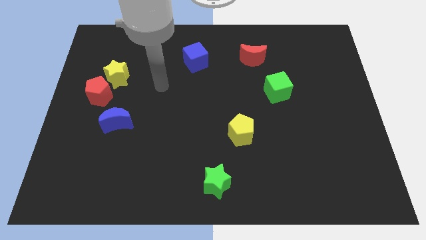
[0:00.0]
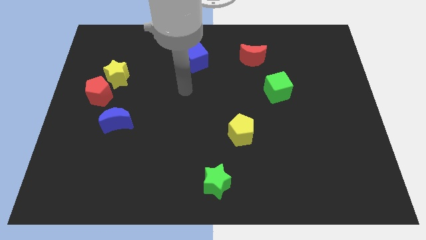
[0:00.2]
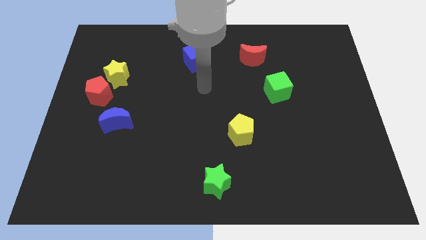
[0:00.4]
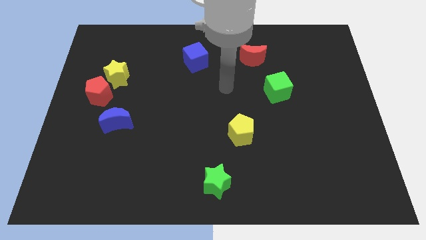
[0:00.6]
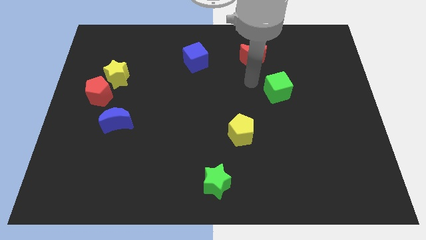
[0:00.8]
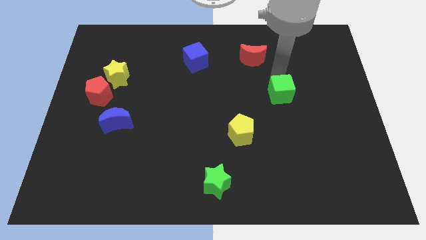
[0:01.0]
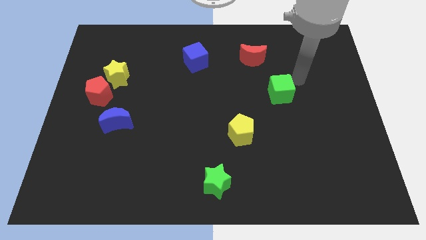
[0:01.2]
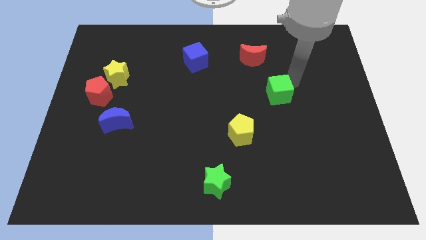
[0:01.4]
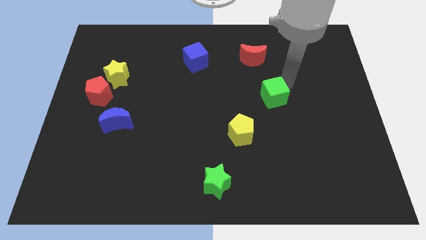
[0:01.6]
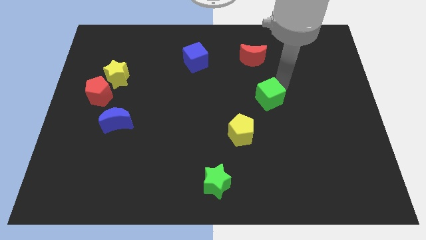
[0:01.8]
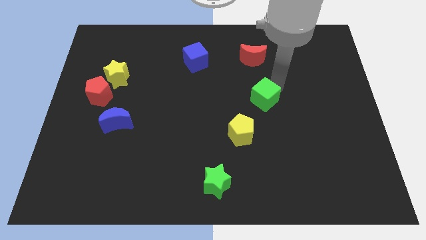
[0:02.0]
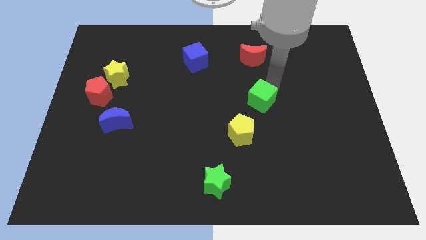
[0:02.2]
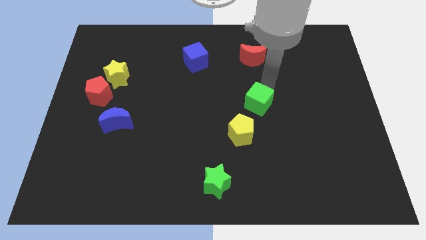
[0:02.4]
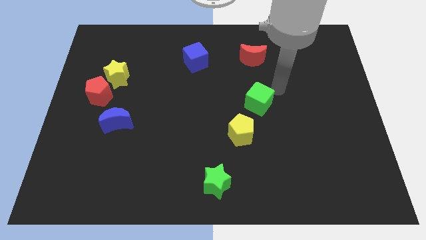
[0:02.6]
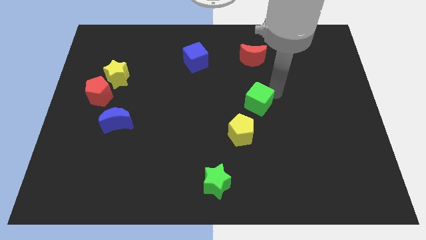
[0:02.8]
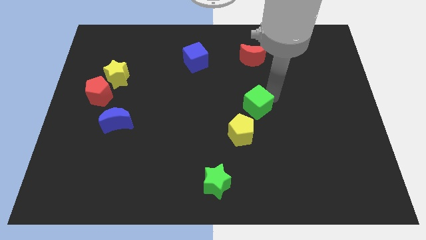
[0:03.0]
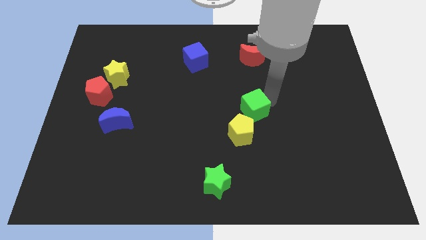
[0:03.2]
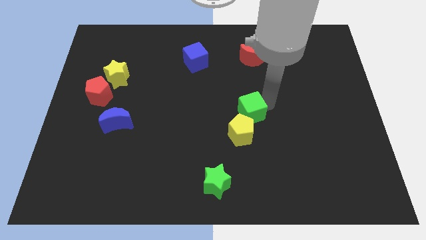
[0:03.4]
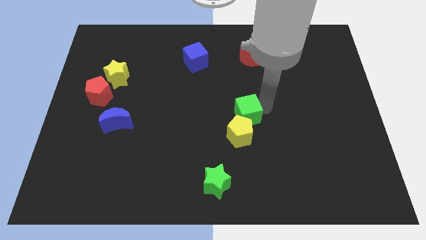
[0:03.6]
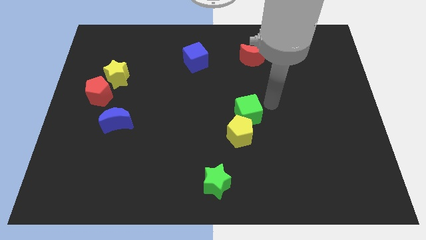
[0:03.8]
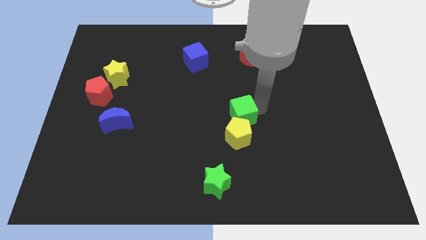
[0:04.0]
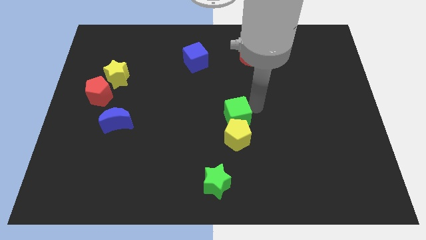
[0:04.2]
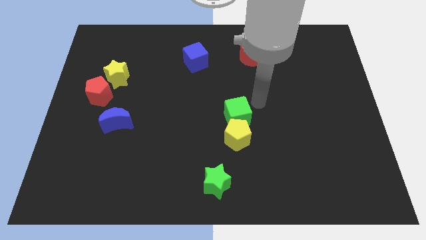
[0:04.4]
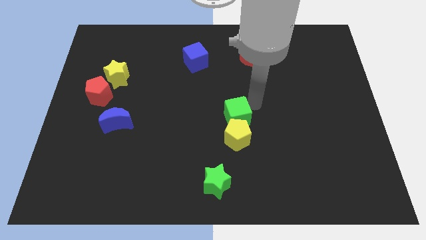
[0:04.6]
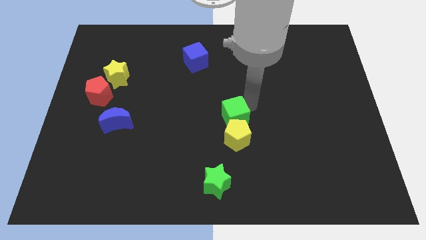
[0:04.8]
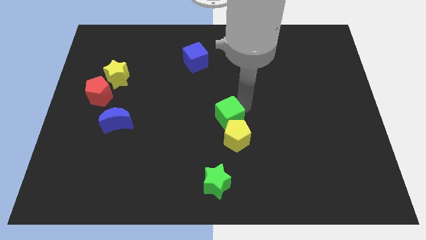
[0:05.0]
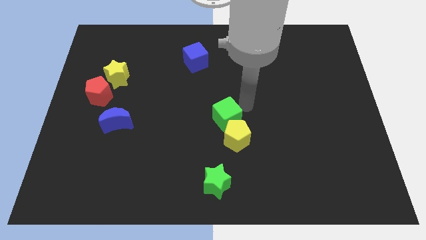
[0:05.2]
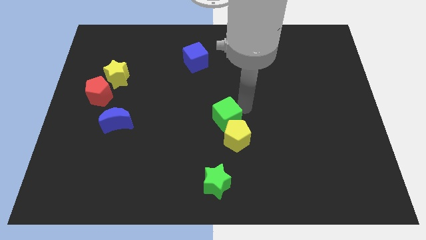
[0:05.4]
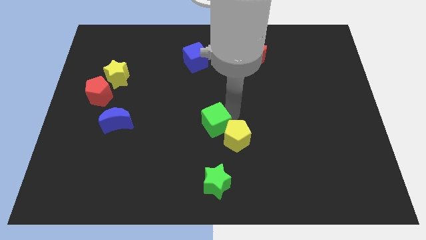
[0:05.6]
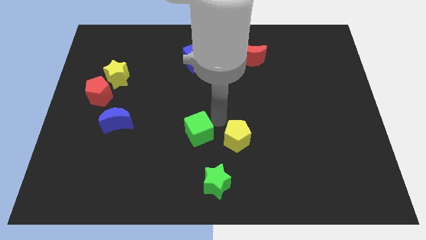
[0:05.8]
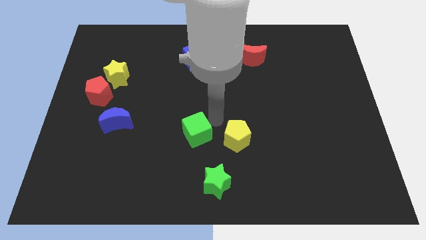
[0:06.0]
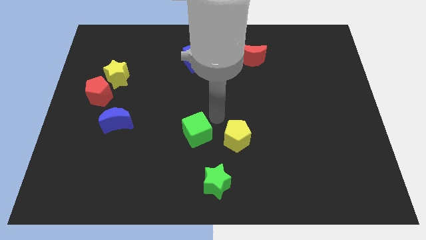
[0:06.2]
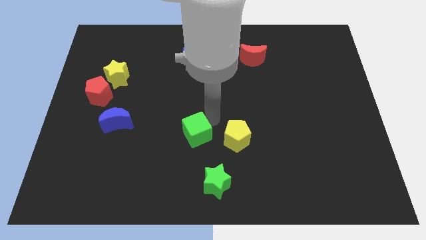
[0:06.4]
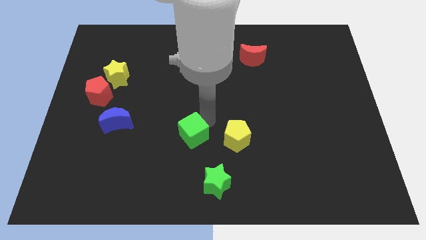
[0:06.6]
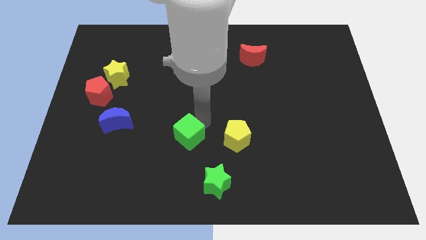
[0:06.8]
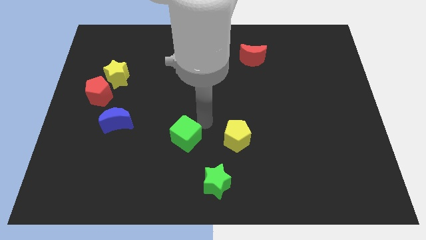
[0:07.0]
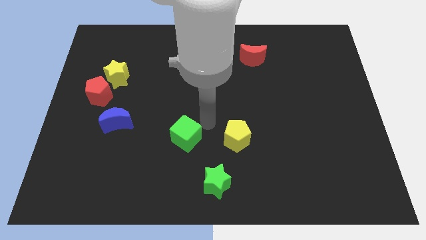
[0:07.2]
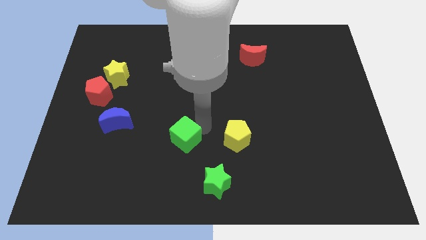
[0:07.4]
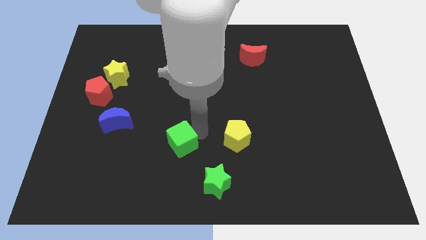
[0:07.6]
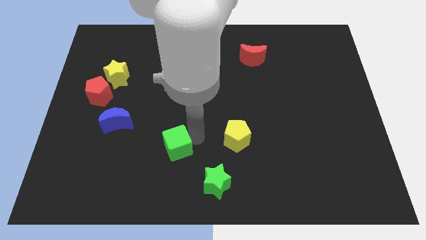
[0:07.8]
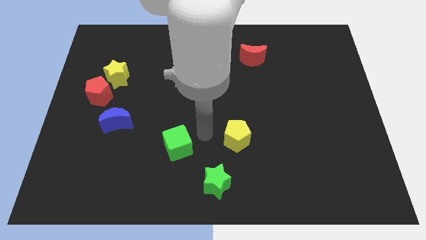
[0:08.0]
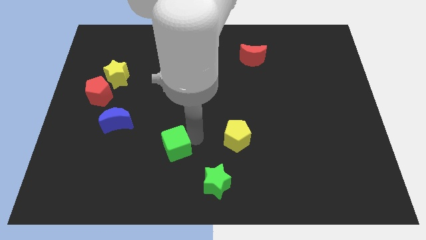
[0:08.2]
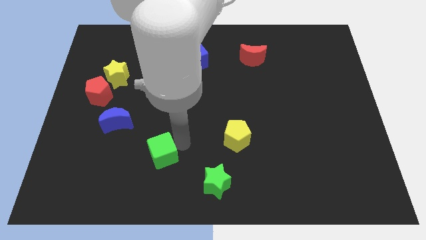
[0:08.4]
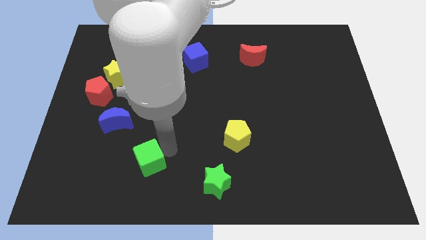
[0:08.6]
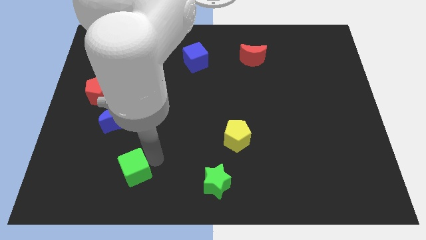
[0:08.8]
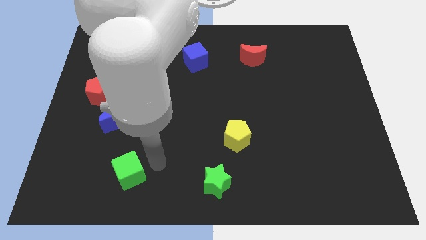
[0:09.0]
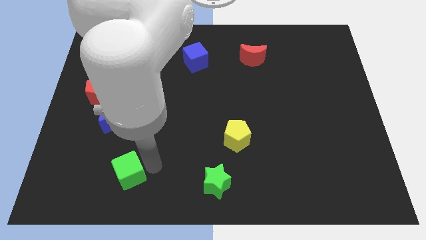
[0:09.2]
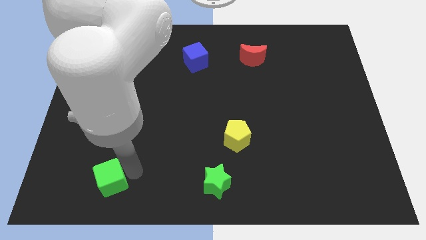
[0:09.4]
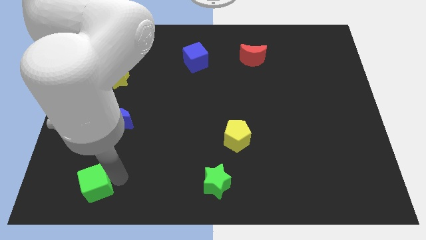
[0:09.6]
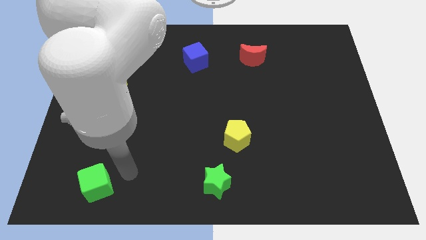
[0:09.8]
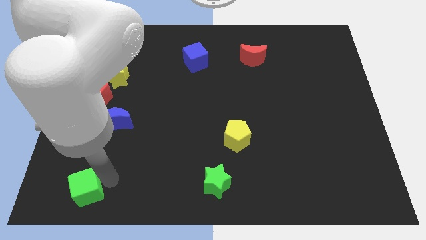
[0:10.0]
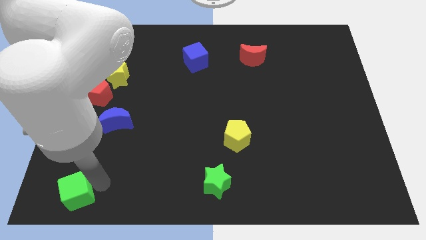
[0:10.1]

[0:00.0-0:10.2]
push the green cube to the bottom left of the board

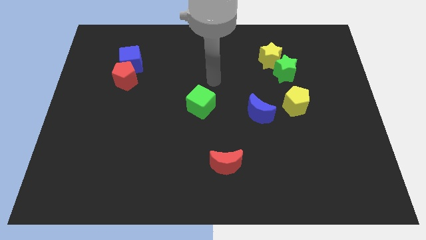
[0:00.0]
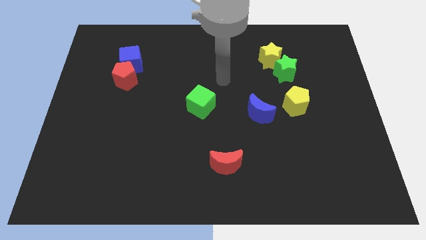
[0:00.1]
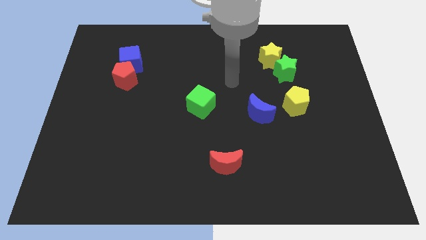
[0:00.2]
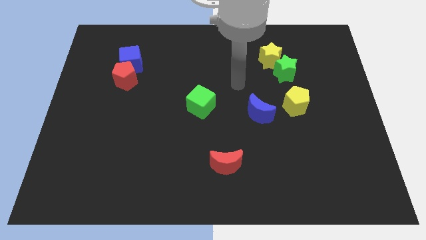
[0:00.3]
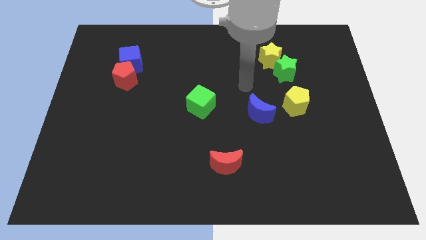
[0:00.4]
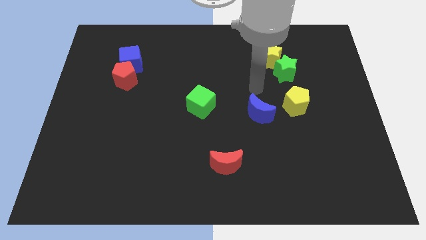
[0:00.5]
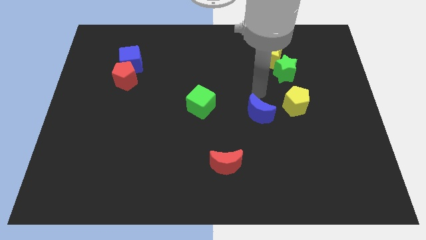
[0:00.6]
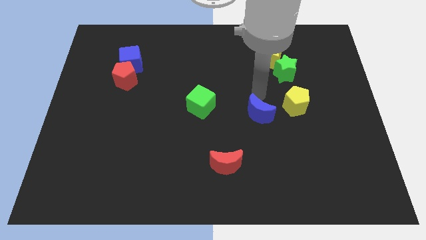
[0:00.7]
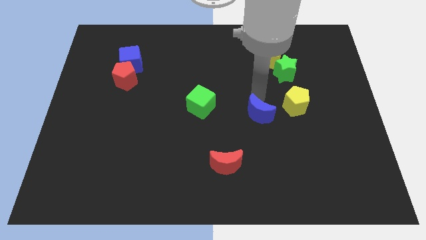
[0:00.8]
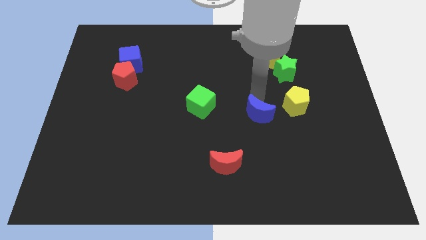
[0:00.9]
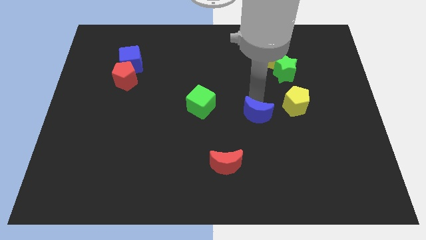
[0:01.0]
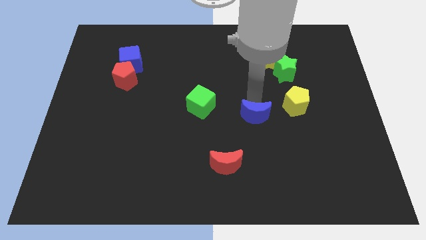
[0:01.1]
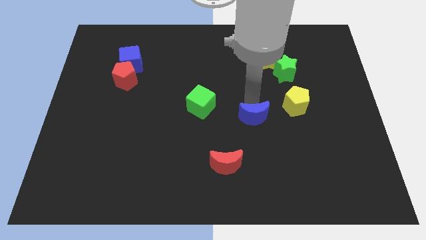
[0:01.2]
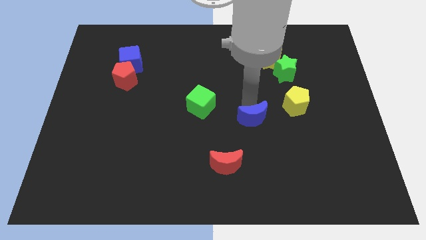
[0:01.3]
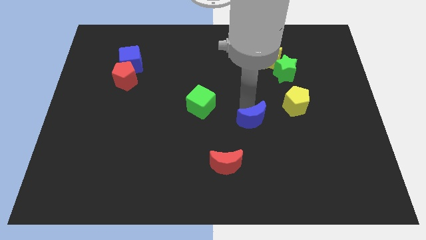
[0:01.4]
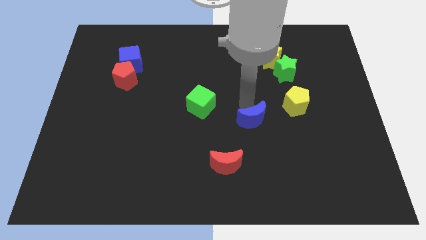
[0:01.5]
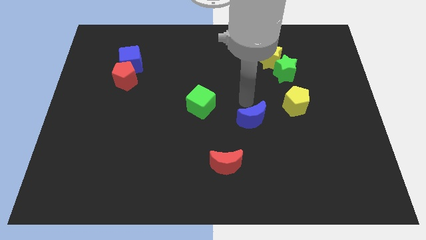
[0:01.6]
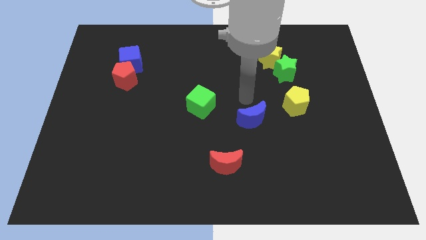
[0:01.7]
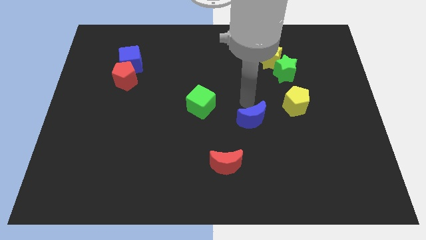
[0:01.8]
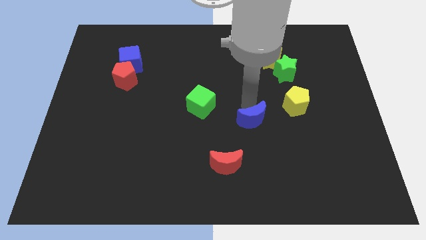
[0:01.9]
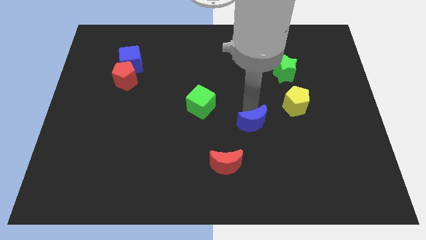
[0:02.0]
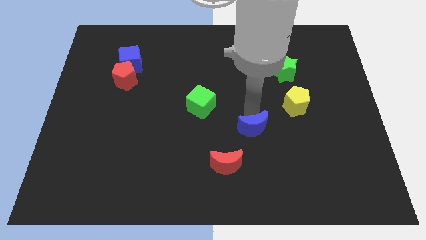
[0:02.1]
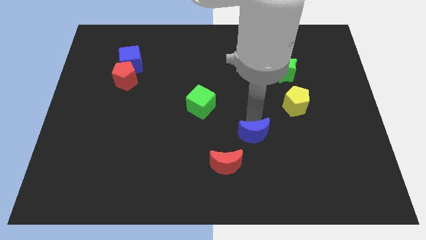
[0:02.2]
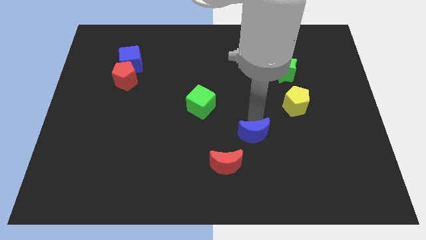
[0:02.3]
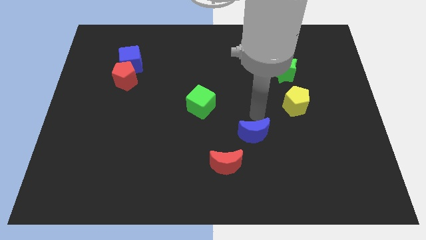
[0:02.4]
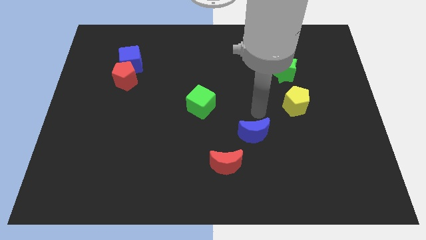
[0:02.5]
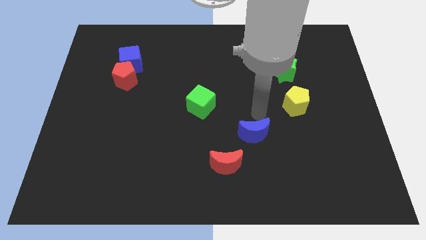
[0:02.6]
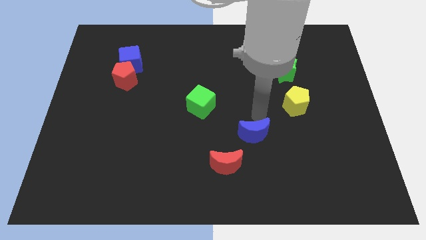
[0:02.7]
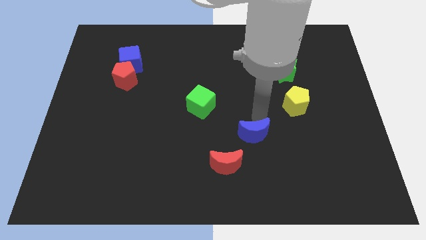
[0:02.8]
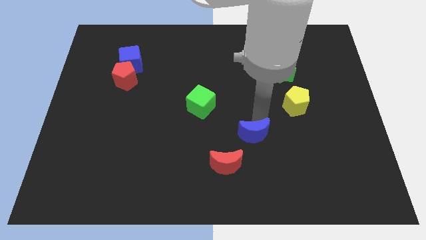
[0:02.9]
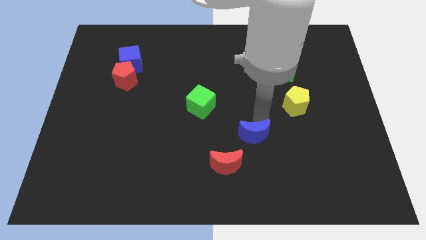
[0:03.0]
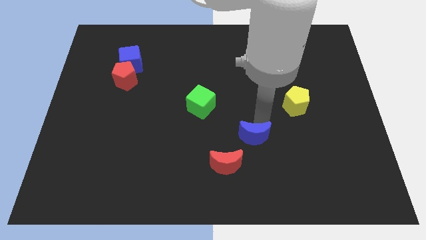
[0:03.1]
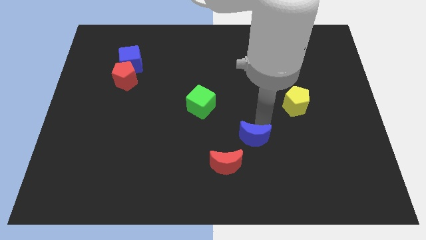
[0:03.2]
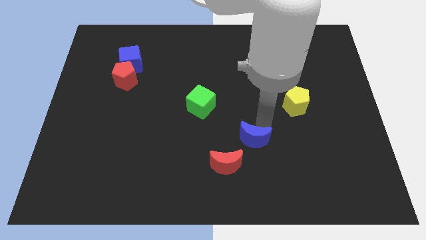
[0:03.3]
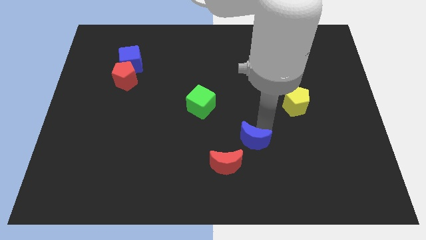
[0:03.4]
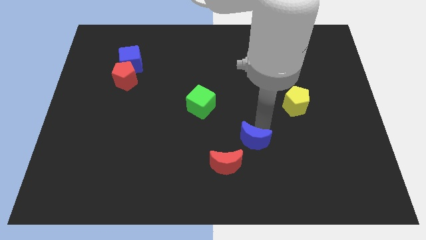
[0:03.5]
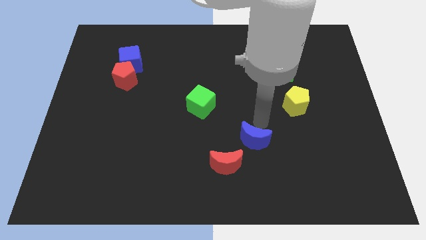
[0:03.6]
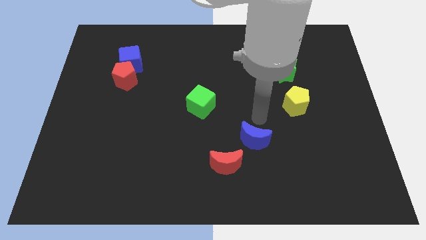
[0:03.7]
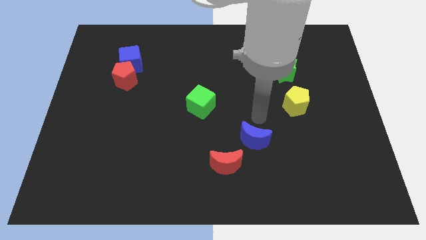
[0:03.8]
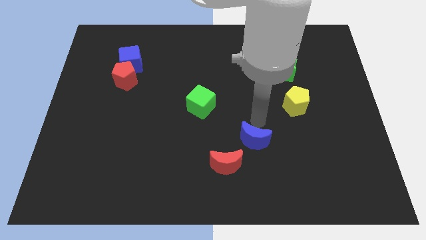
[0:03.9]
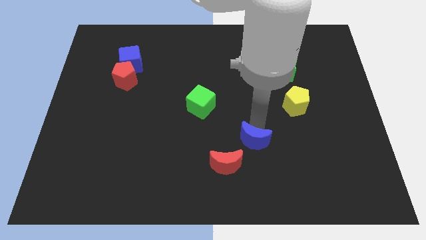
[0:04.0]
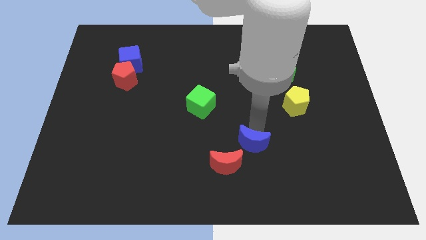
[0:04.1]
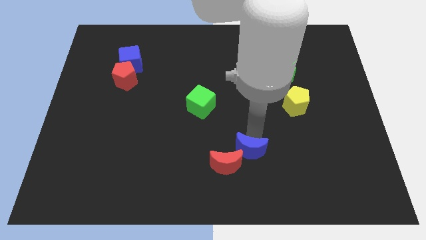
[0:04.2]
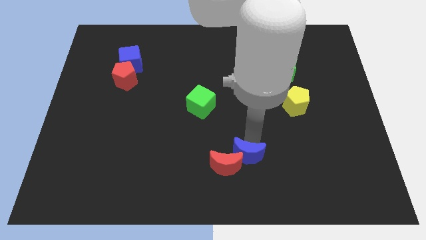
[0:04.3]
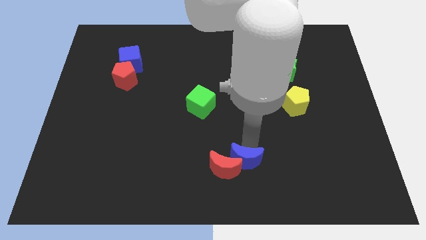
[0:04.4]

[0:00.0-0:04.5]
slide the blue moon to the bottom
